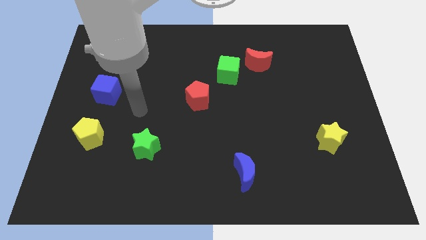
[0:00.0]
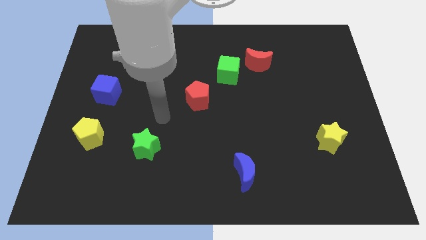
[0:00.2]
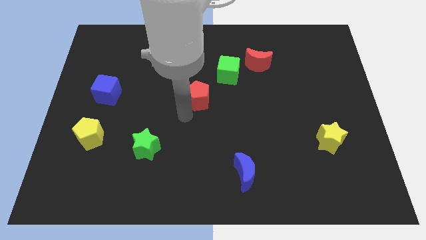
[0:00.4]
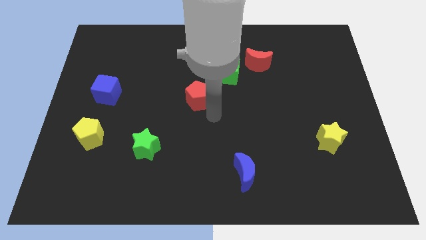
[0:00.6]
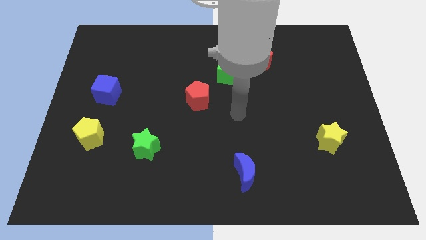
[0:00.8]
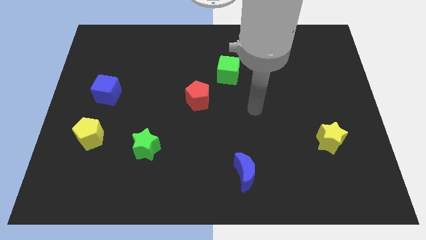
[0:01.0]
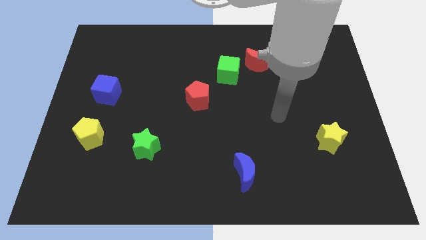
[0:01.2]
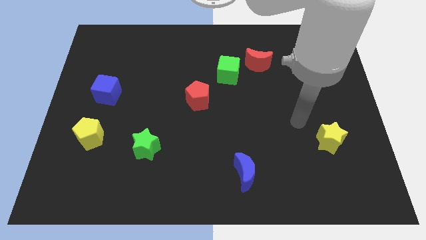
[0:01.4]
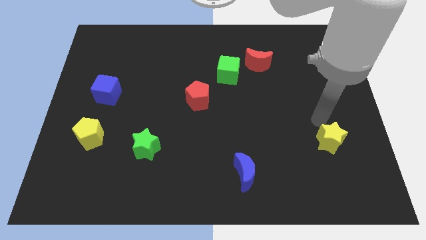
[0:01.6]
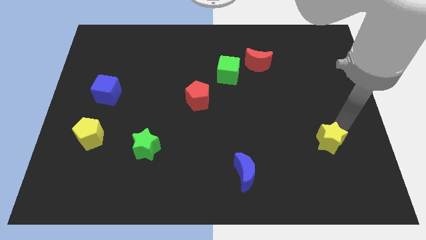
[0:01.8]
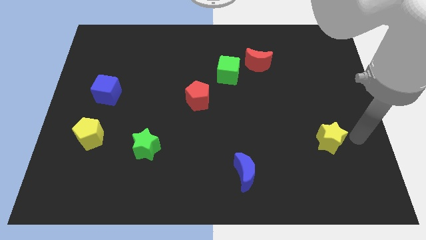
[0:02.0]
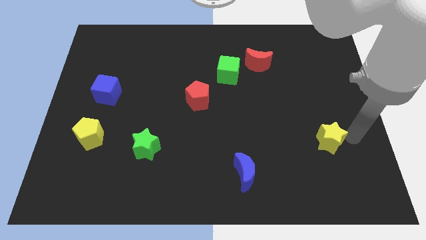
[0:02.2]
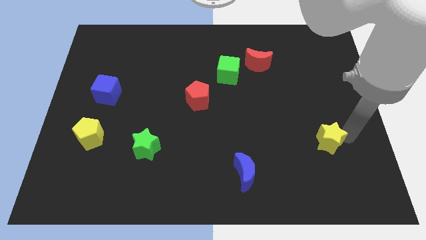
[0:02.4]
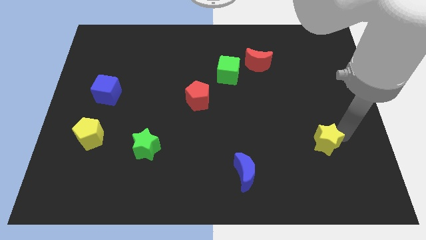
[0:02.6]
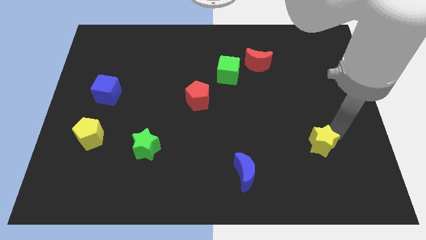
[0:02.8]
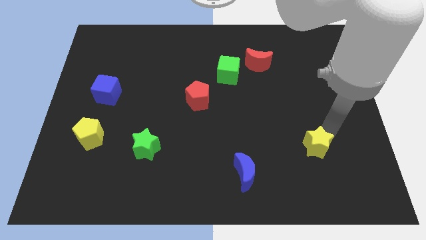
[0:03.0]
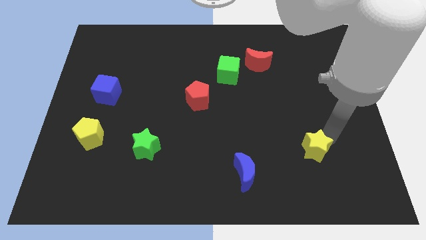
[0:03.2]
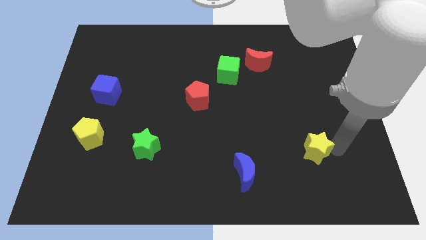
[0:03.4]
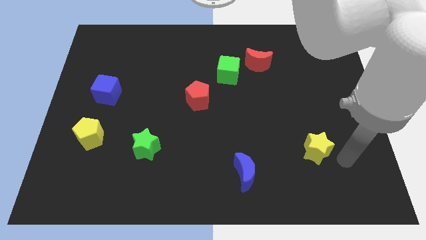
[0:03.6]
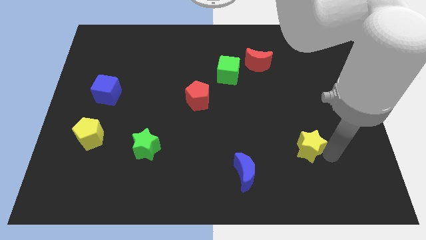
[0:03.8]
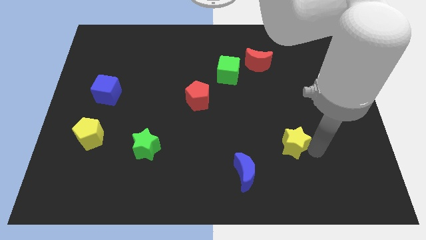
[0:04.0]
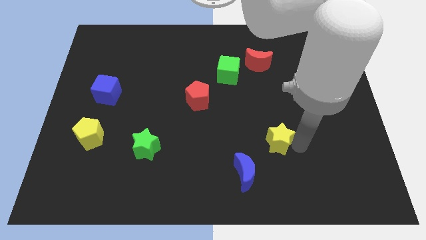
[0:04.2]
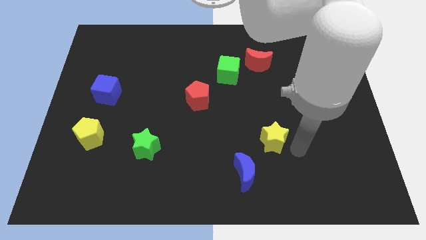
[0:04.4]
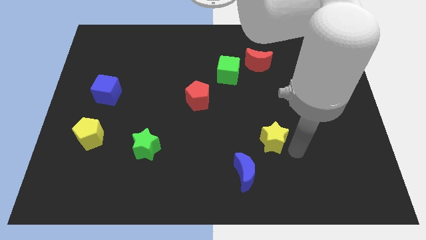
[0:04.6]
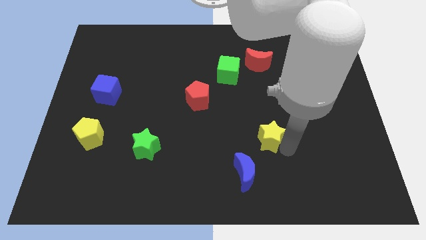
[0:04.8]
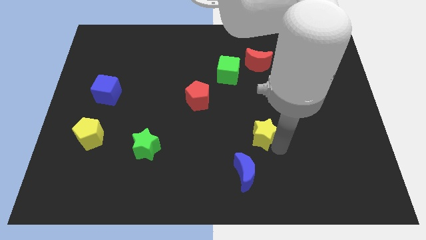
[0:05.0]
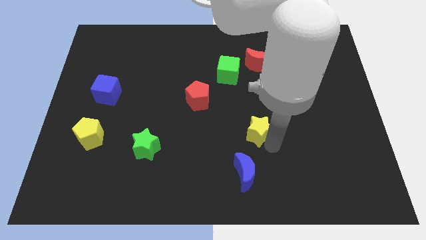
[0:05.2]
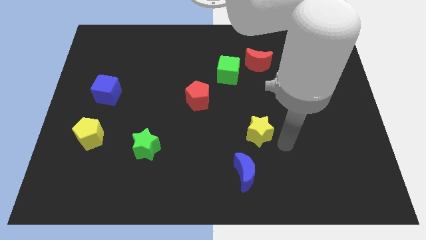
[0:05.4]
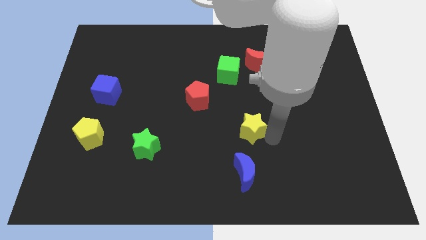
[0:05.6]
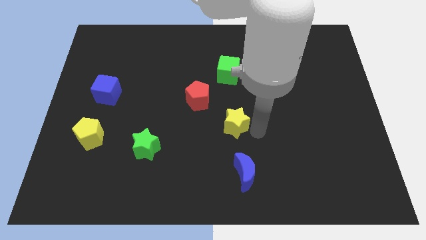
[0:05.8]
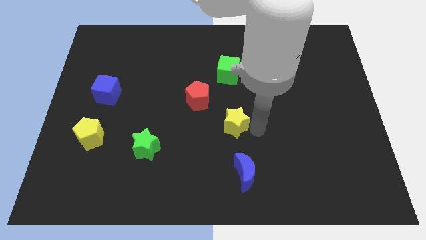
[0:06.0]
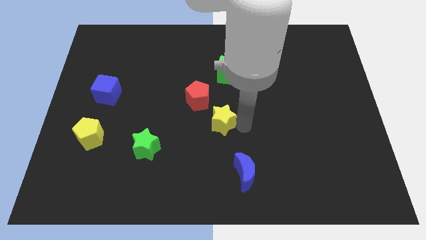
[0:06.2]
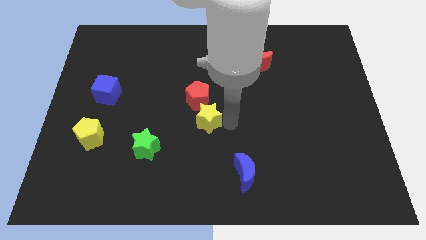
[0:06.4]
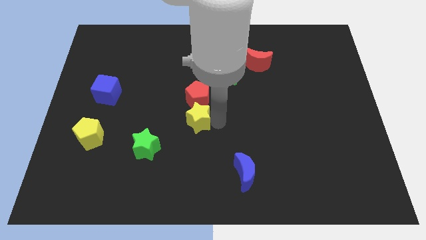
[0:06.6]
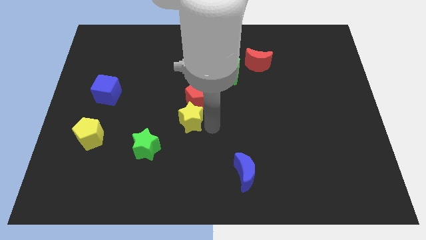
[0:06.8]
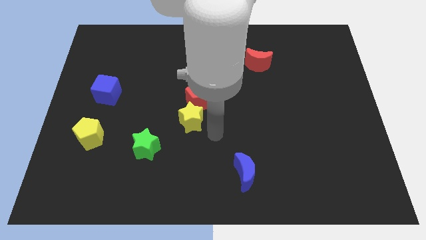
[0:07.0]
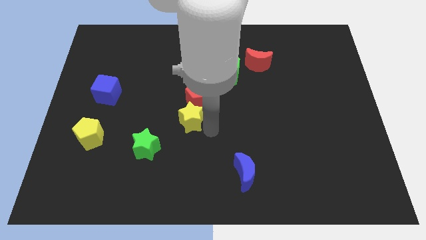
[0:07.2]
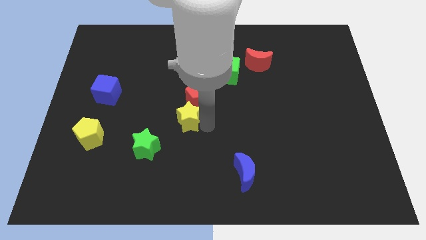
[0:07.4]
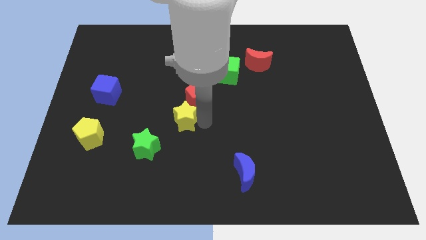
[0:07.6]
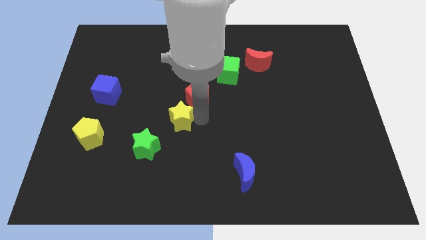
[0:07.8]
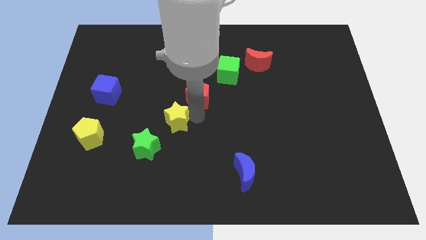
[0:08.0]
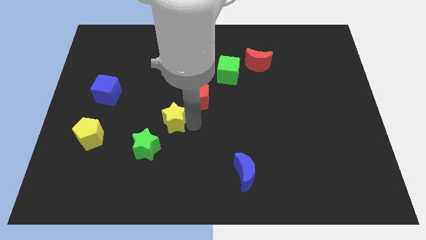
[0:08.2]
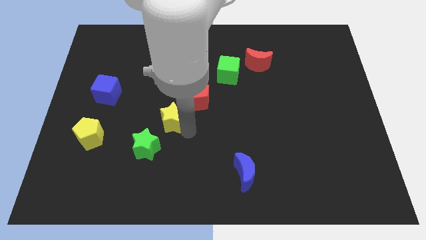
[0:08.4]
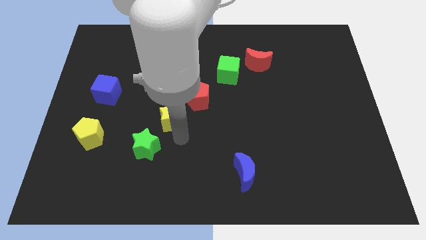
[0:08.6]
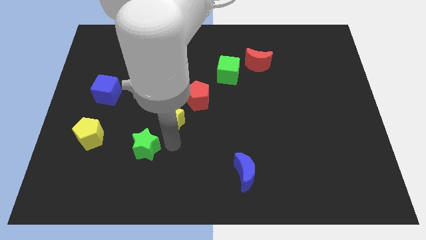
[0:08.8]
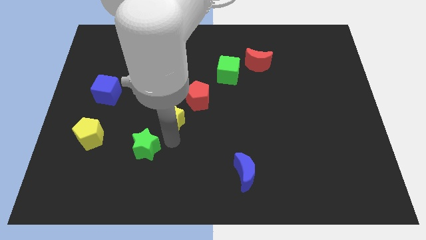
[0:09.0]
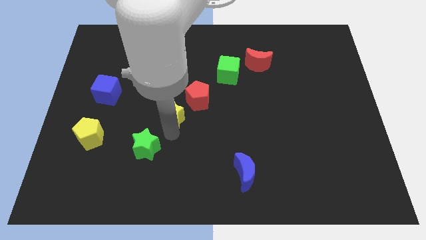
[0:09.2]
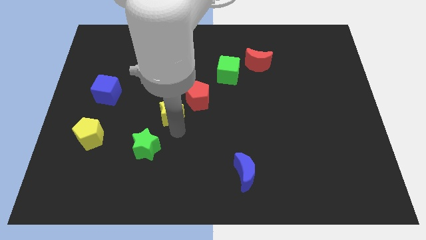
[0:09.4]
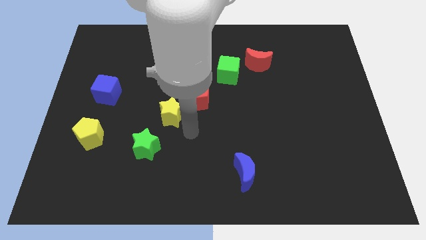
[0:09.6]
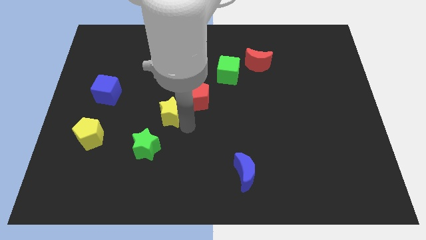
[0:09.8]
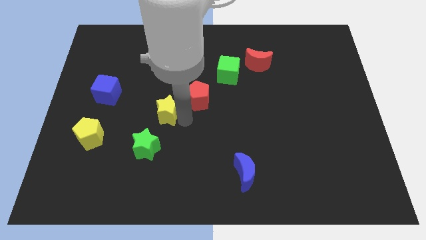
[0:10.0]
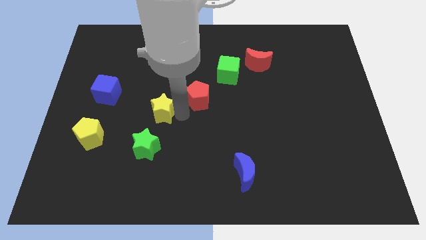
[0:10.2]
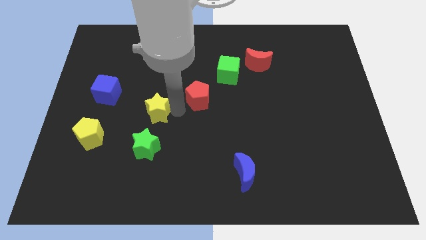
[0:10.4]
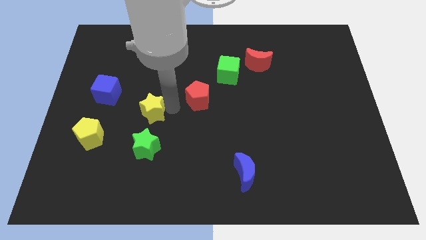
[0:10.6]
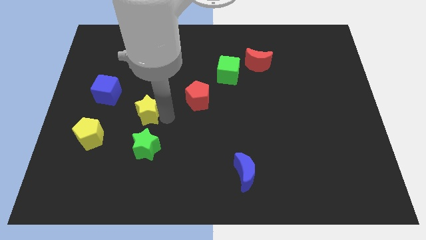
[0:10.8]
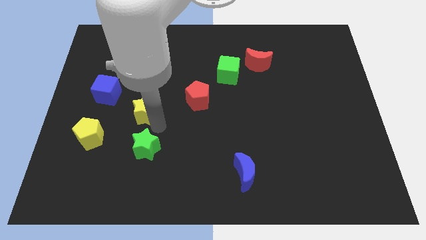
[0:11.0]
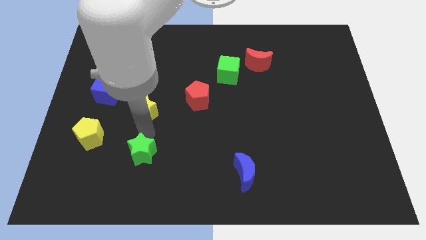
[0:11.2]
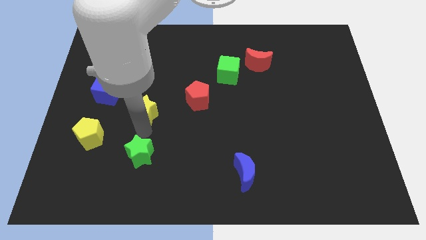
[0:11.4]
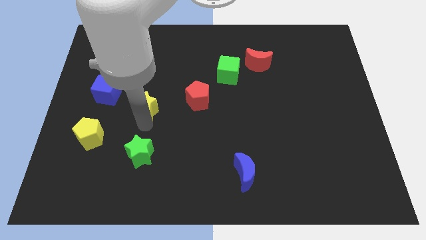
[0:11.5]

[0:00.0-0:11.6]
push the yellow star to the right of the blue cube

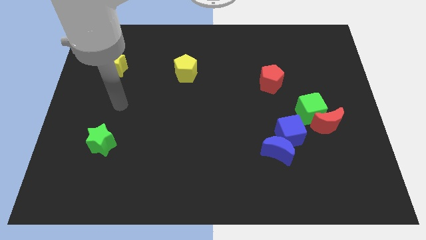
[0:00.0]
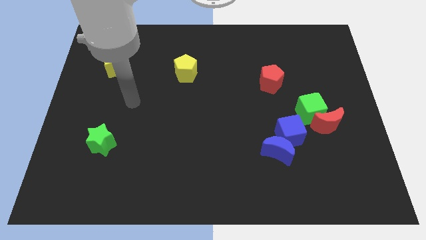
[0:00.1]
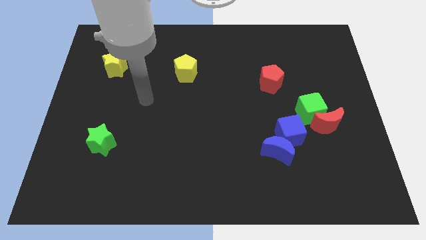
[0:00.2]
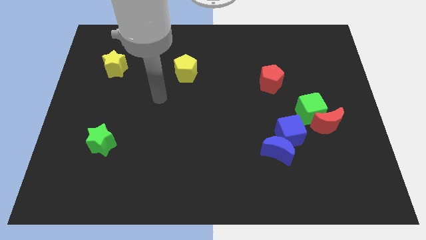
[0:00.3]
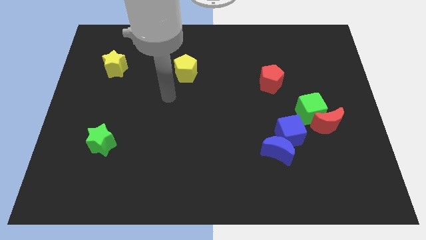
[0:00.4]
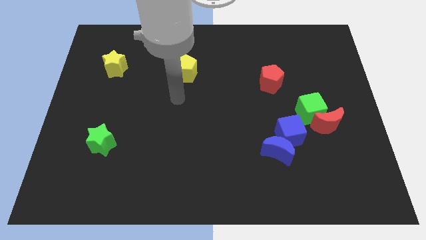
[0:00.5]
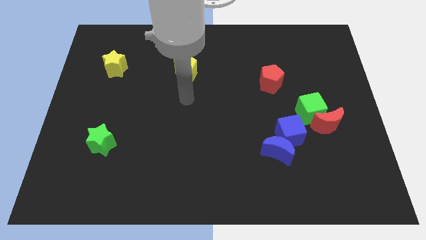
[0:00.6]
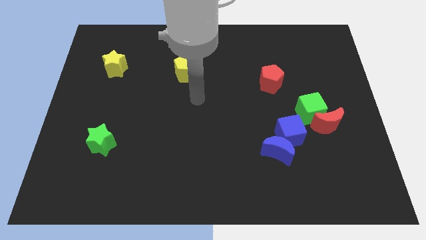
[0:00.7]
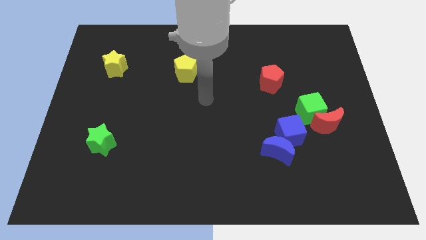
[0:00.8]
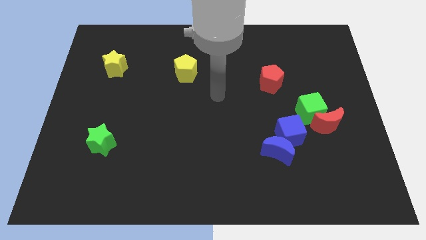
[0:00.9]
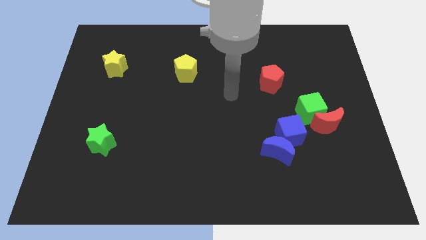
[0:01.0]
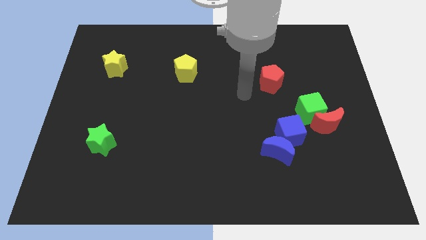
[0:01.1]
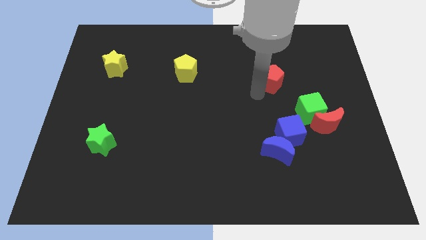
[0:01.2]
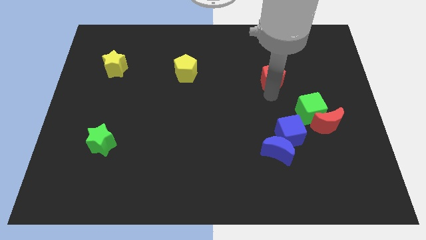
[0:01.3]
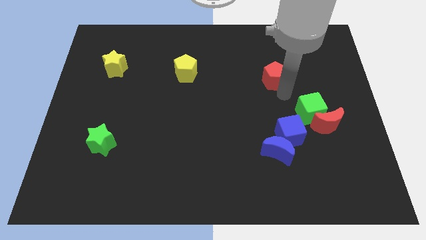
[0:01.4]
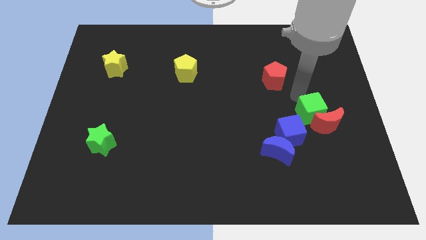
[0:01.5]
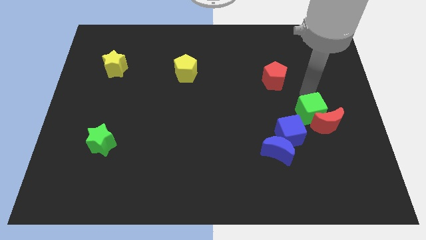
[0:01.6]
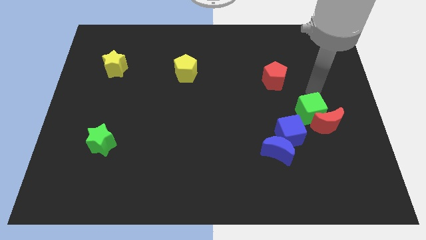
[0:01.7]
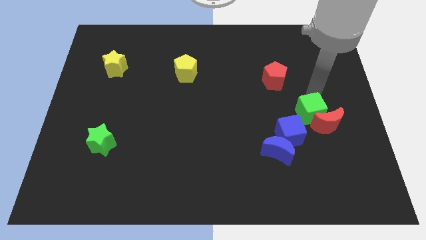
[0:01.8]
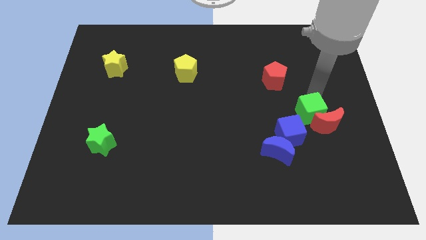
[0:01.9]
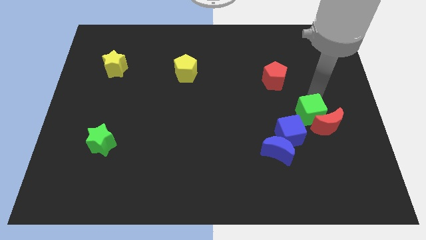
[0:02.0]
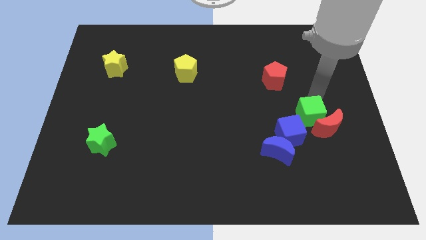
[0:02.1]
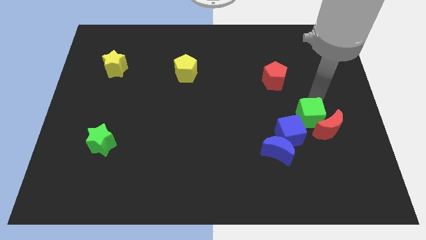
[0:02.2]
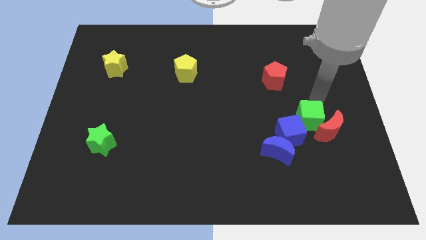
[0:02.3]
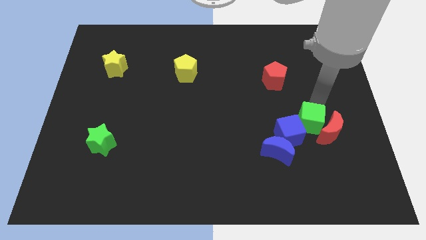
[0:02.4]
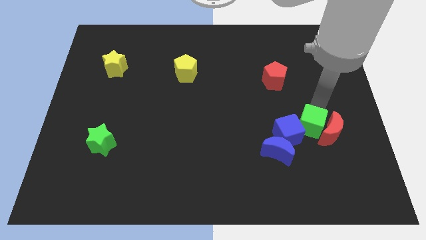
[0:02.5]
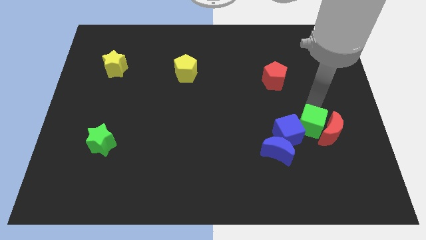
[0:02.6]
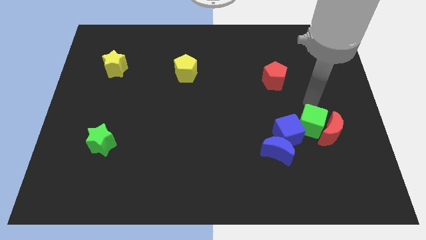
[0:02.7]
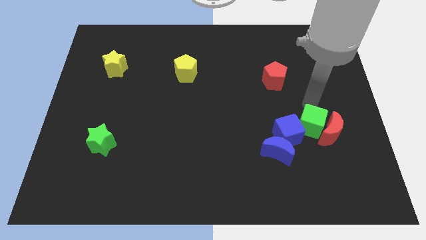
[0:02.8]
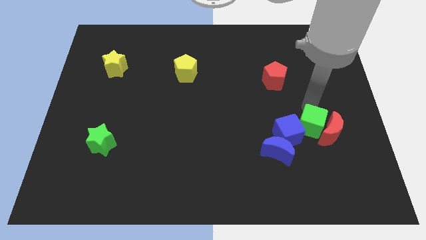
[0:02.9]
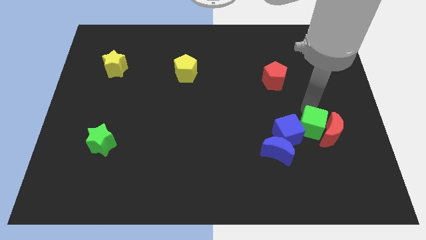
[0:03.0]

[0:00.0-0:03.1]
push the green cube diagonally down and to the left of the red moon
